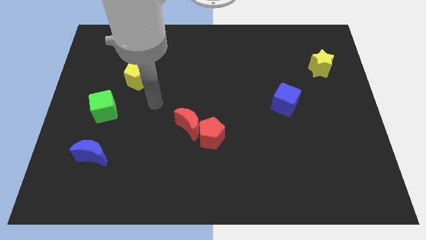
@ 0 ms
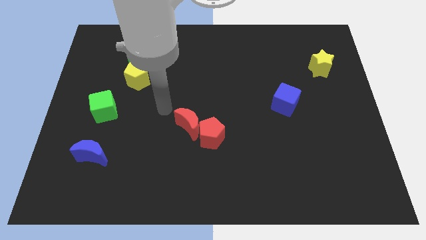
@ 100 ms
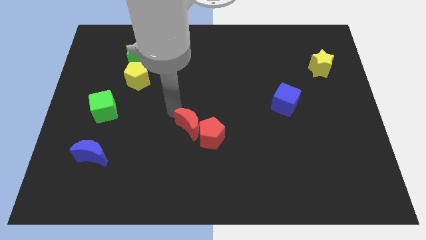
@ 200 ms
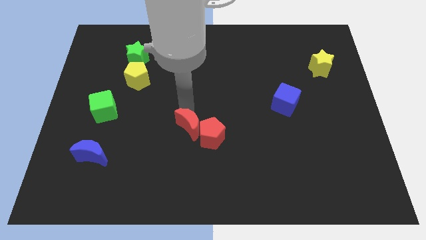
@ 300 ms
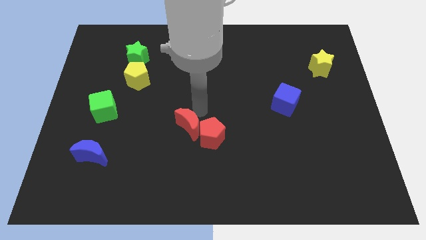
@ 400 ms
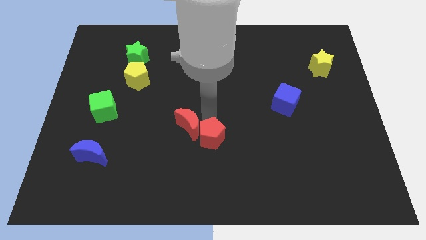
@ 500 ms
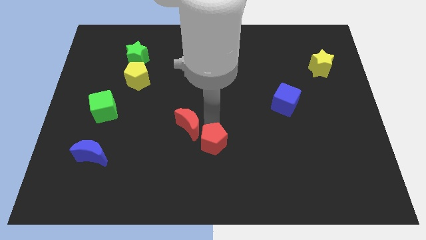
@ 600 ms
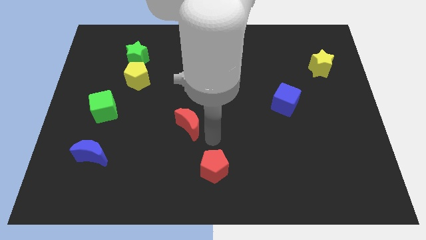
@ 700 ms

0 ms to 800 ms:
separate the red moon from the red pentagon

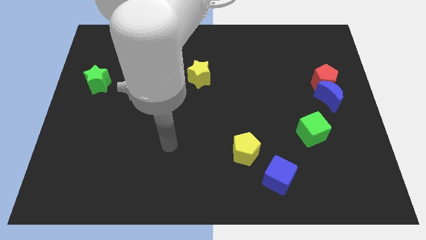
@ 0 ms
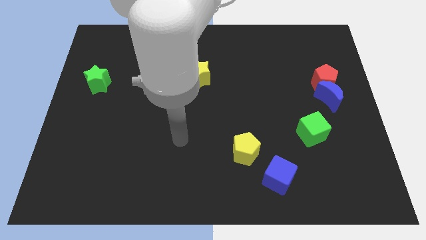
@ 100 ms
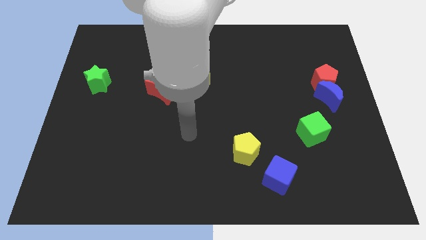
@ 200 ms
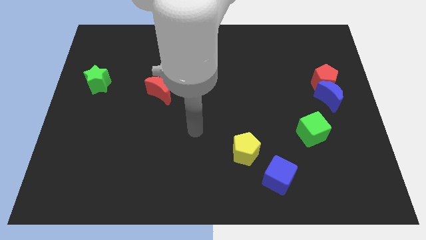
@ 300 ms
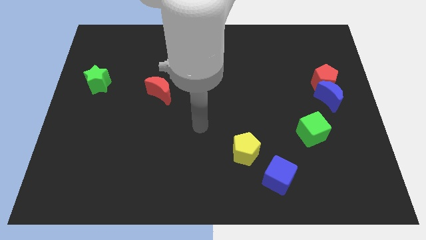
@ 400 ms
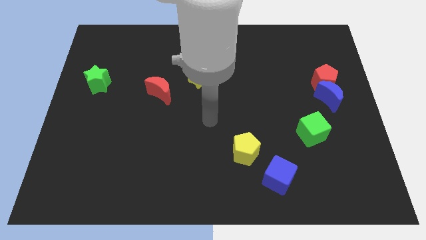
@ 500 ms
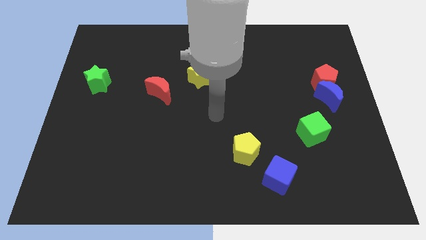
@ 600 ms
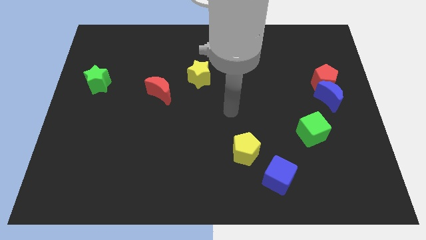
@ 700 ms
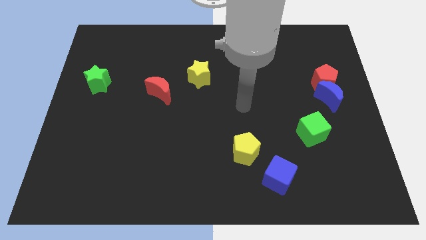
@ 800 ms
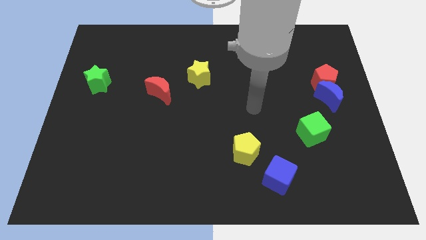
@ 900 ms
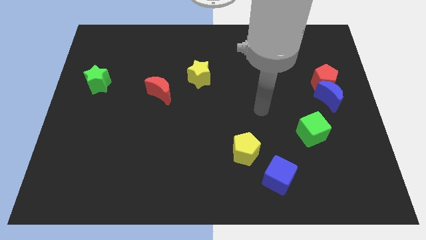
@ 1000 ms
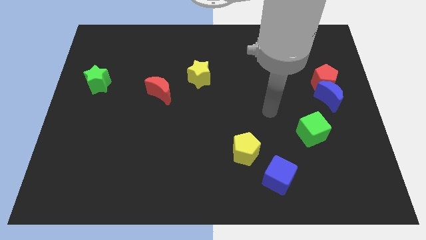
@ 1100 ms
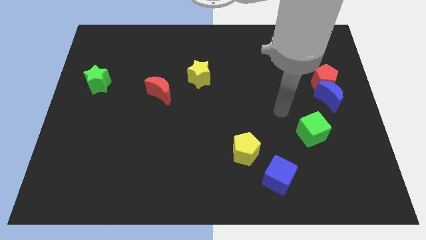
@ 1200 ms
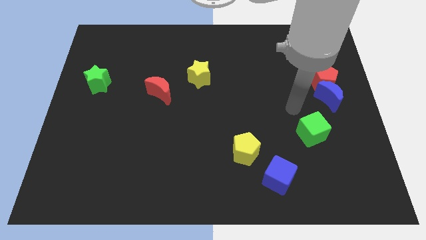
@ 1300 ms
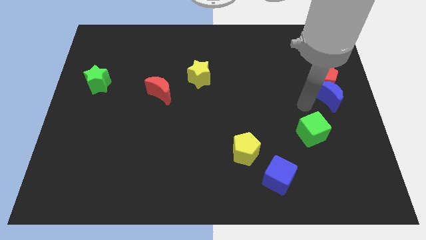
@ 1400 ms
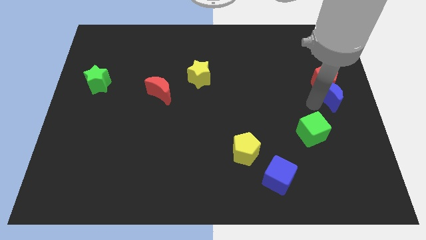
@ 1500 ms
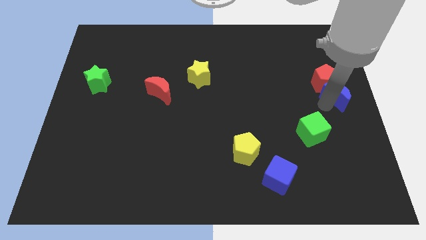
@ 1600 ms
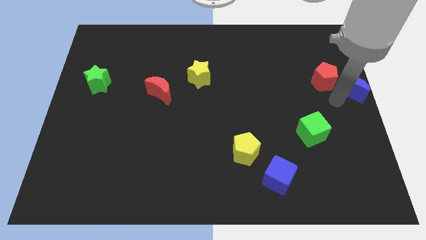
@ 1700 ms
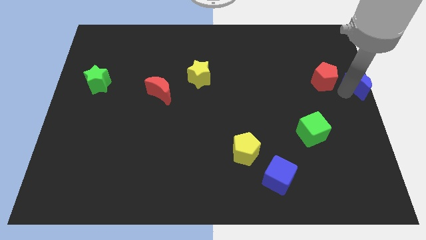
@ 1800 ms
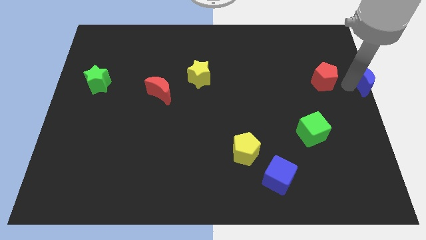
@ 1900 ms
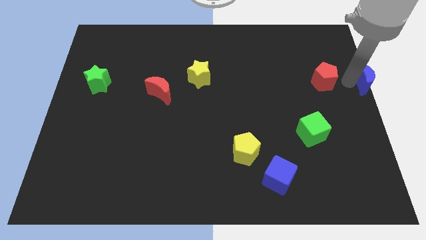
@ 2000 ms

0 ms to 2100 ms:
move the red pentagon away from the blue moon

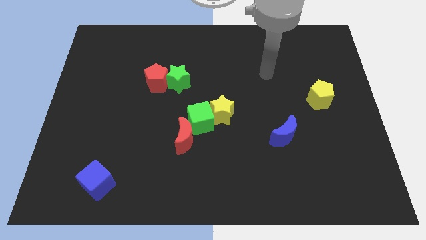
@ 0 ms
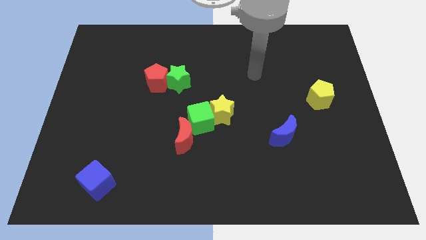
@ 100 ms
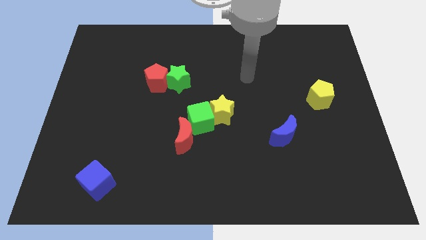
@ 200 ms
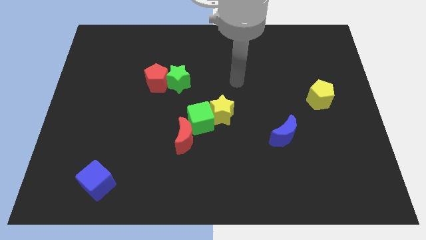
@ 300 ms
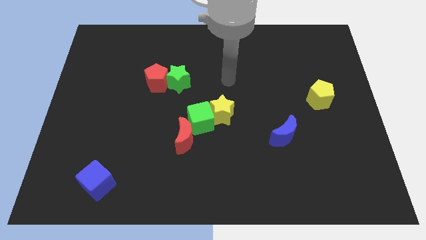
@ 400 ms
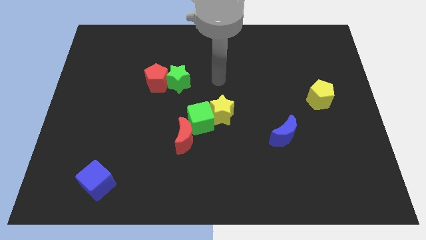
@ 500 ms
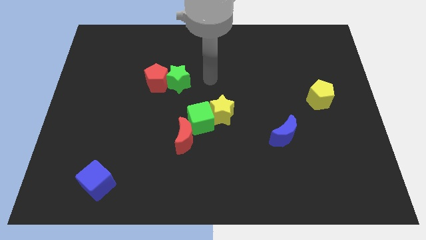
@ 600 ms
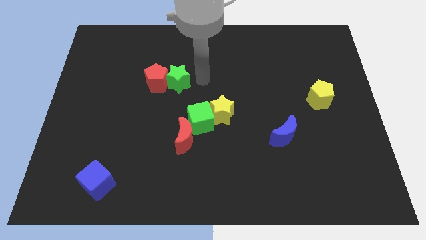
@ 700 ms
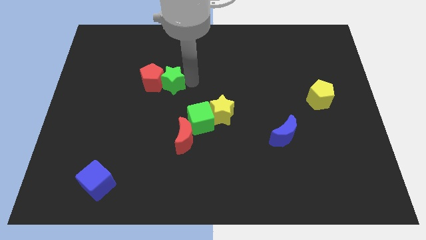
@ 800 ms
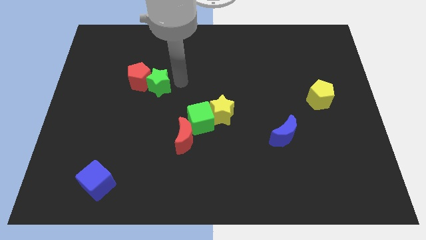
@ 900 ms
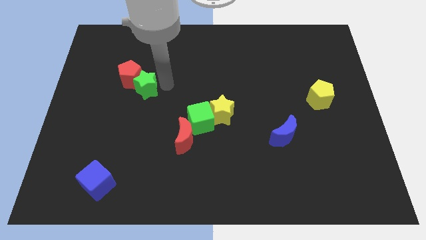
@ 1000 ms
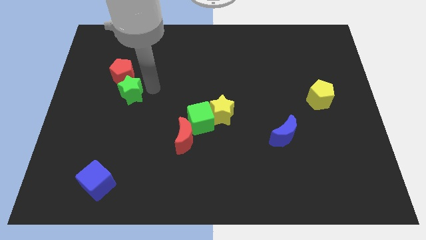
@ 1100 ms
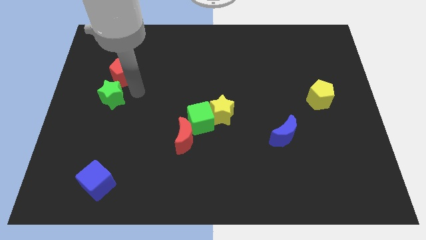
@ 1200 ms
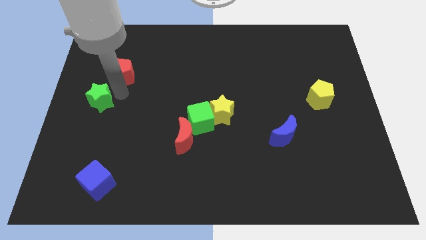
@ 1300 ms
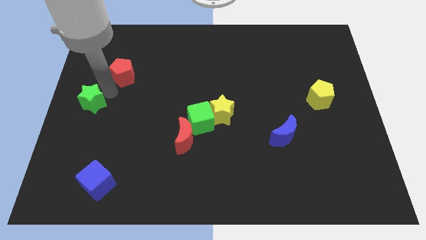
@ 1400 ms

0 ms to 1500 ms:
separate the red pentagon from the green star

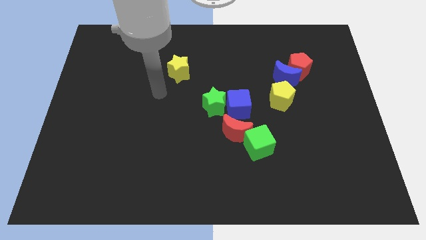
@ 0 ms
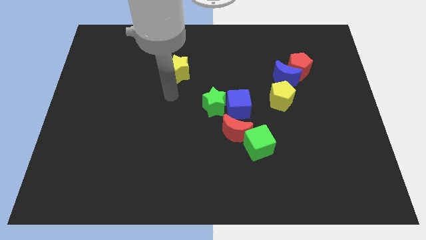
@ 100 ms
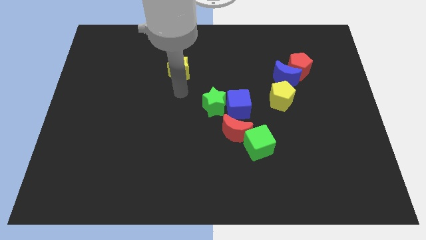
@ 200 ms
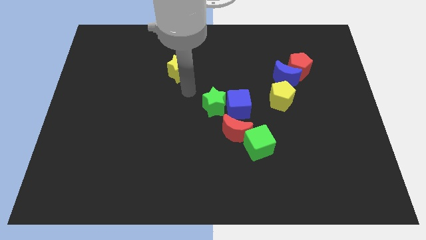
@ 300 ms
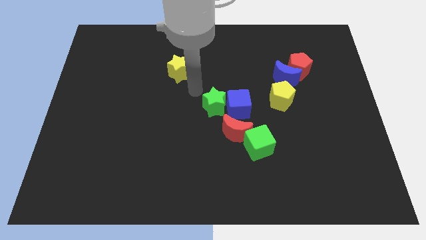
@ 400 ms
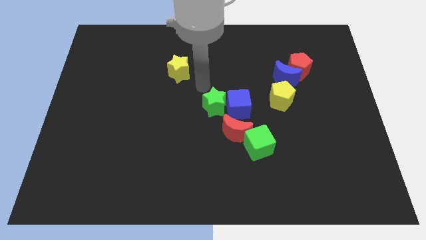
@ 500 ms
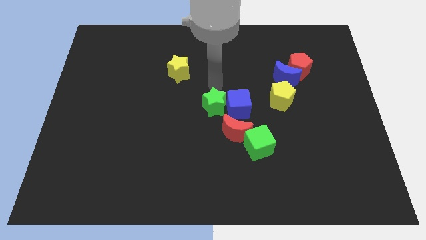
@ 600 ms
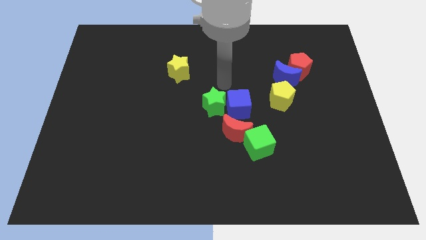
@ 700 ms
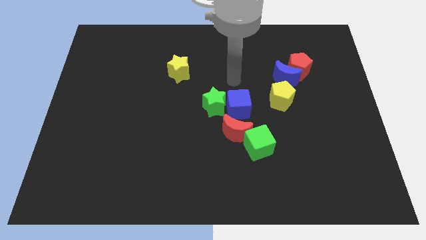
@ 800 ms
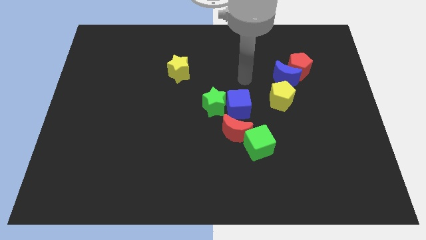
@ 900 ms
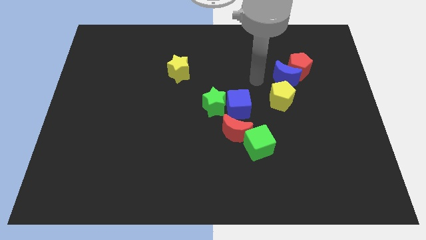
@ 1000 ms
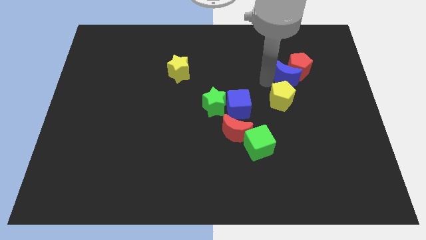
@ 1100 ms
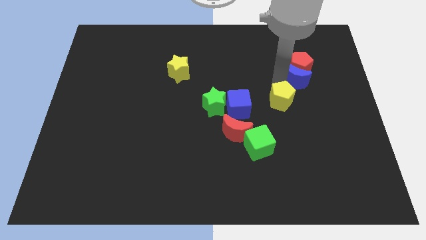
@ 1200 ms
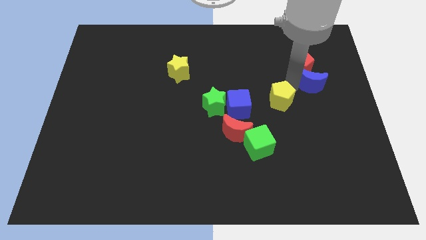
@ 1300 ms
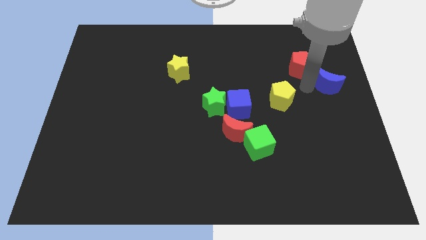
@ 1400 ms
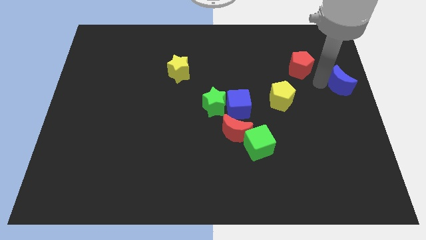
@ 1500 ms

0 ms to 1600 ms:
separate the red pentagon from the blue moon

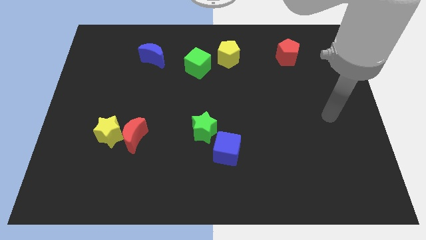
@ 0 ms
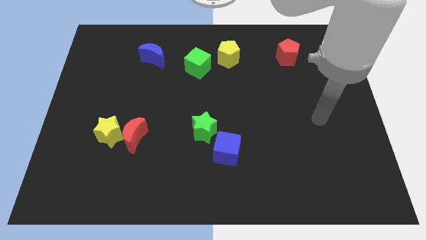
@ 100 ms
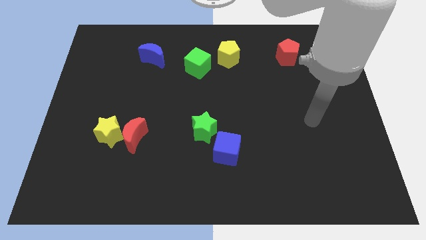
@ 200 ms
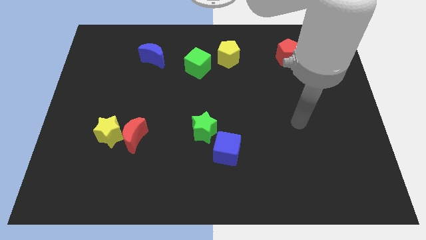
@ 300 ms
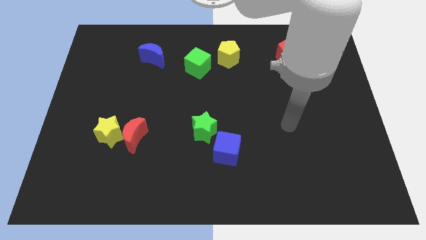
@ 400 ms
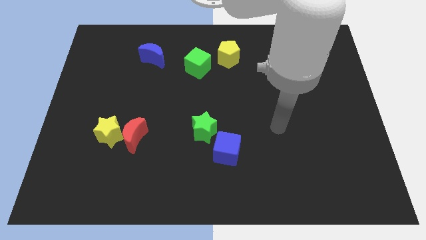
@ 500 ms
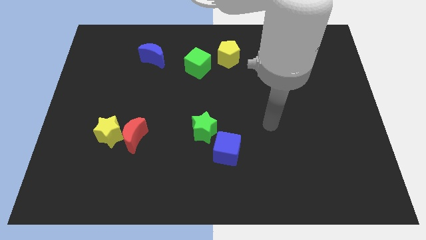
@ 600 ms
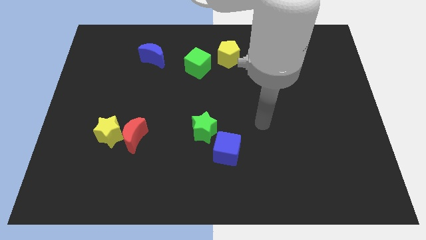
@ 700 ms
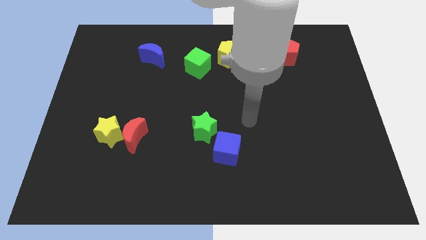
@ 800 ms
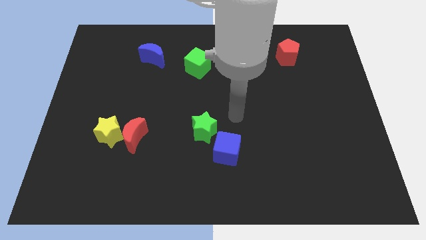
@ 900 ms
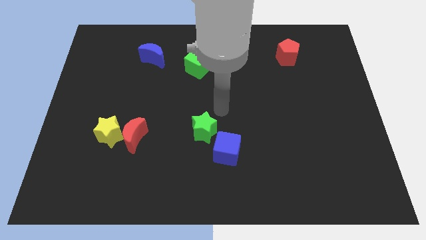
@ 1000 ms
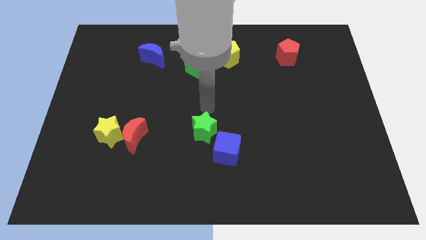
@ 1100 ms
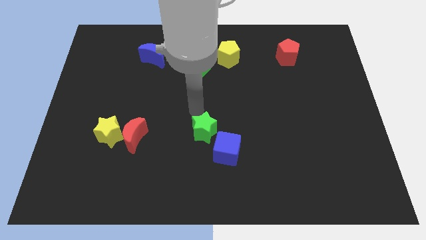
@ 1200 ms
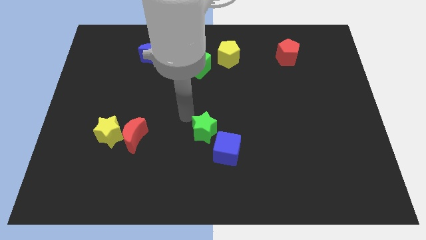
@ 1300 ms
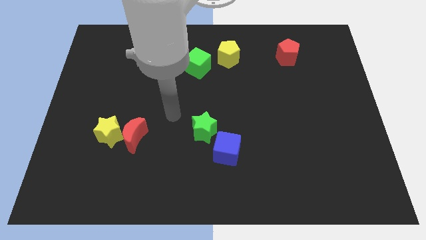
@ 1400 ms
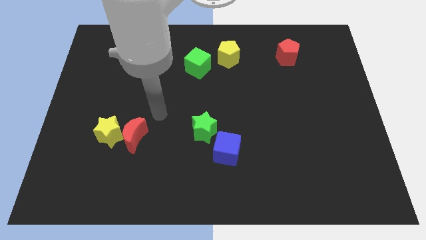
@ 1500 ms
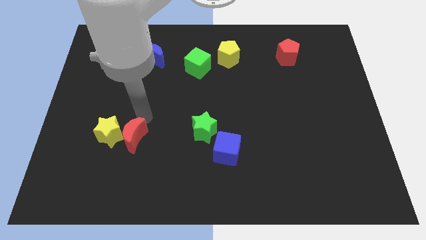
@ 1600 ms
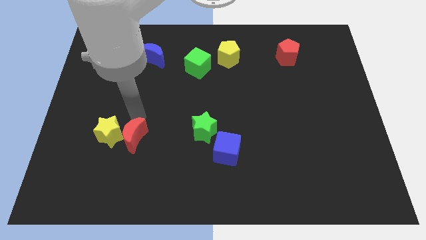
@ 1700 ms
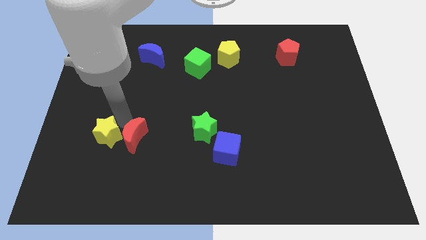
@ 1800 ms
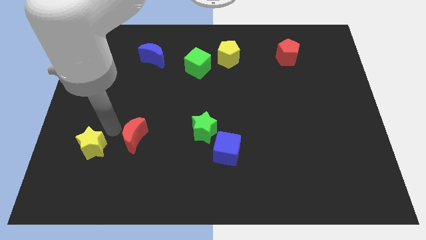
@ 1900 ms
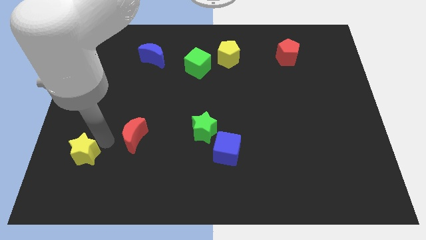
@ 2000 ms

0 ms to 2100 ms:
separate the red moon from the yellow star

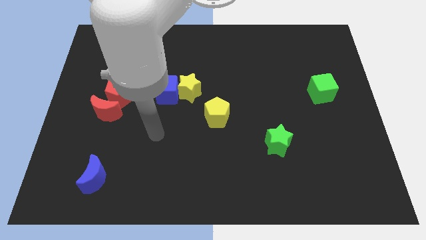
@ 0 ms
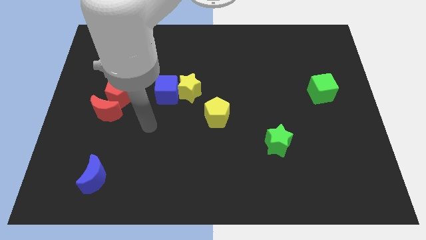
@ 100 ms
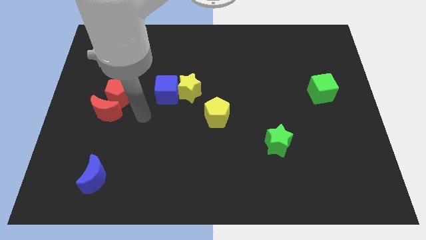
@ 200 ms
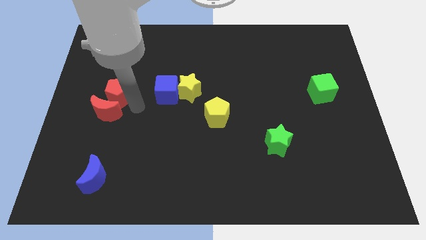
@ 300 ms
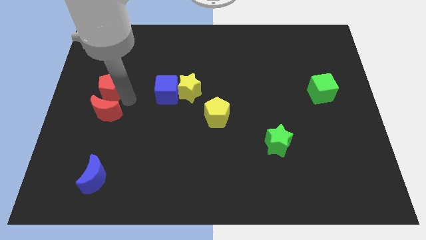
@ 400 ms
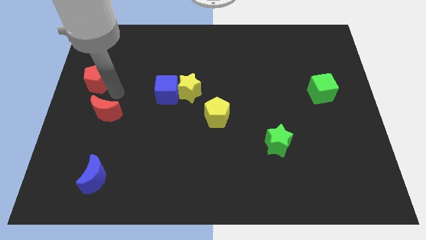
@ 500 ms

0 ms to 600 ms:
pull the red moon apart from the red pentagon

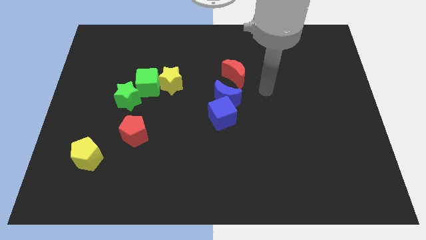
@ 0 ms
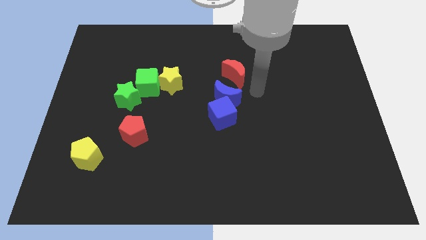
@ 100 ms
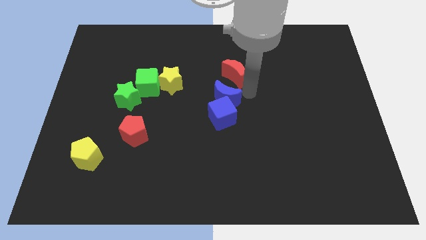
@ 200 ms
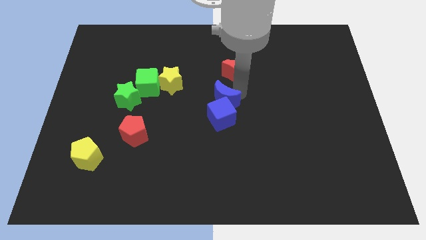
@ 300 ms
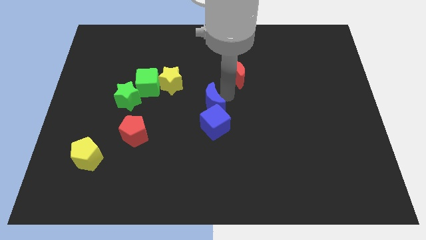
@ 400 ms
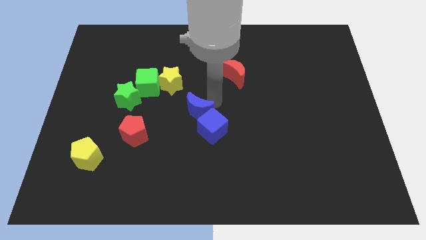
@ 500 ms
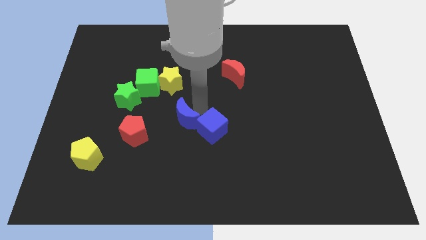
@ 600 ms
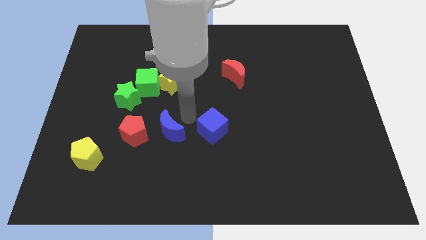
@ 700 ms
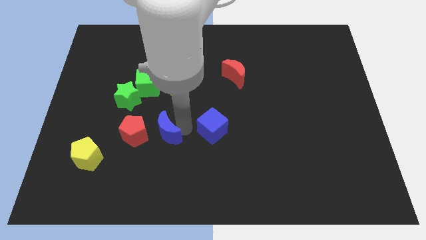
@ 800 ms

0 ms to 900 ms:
move the blue cube away from the blue moon
